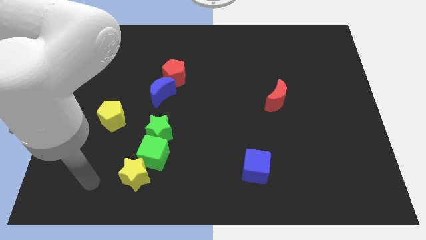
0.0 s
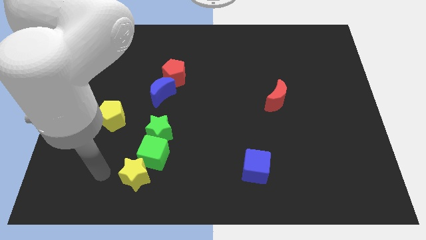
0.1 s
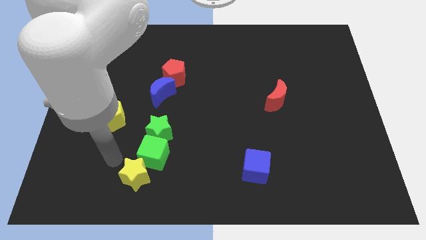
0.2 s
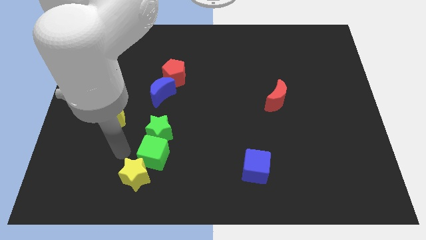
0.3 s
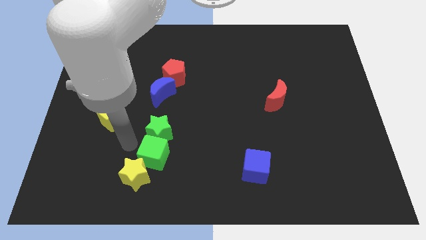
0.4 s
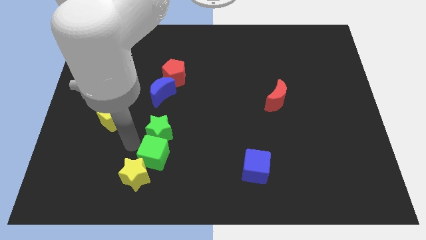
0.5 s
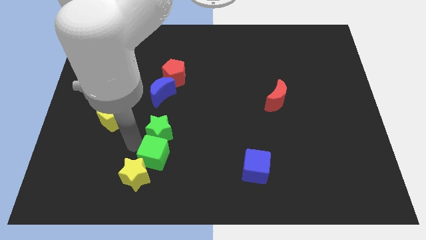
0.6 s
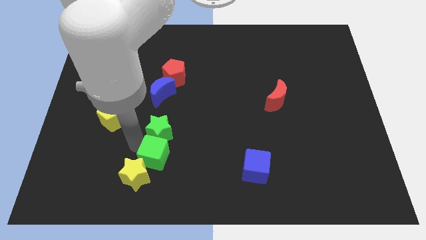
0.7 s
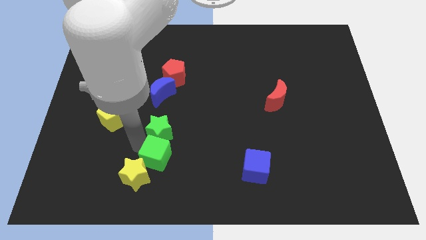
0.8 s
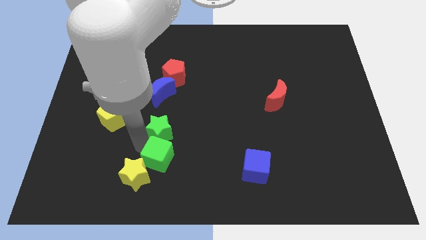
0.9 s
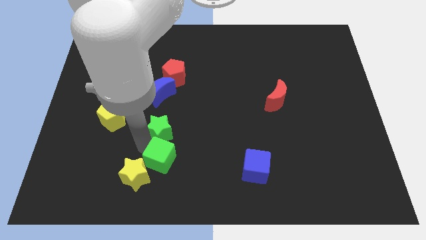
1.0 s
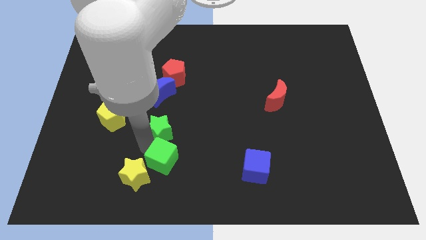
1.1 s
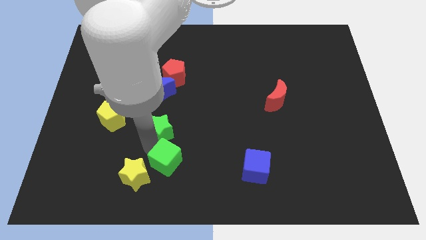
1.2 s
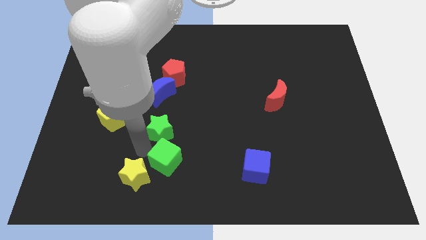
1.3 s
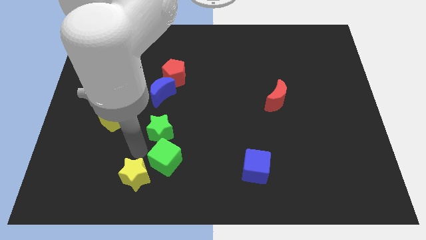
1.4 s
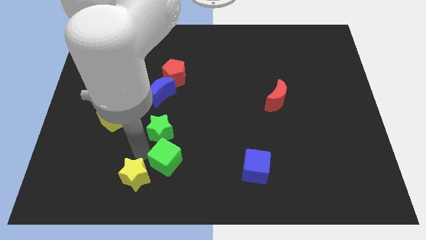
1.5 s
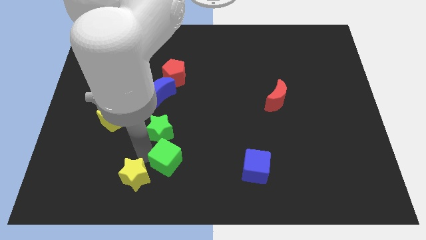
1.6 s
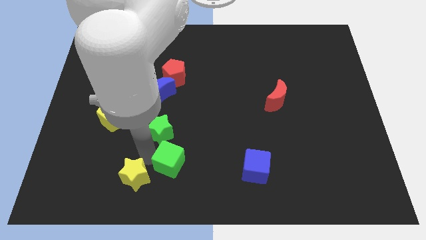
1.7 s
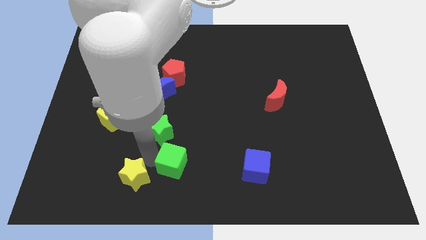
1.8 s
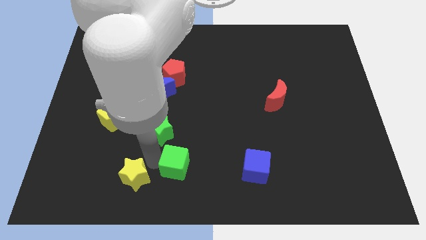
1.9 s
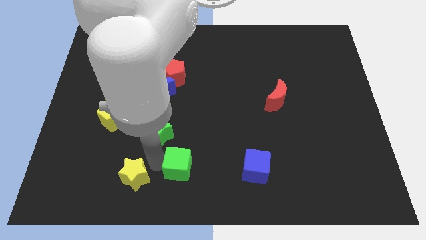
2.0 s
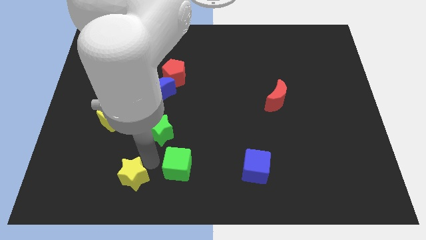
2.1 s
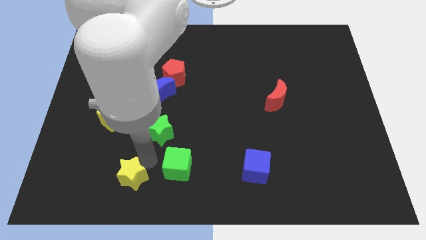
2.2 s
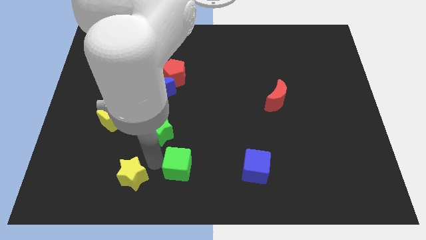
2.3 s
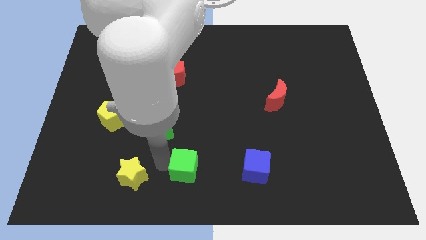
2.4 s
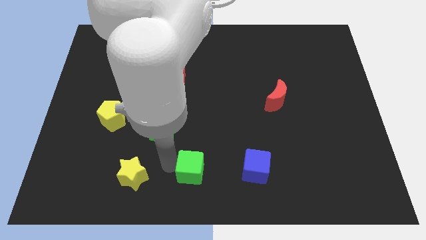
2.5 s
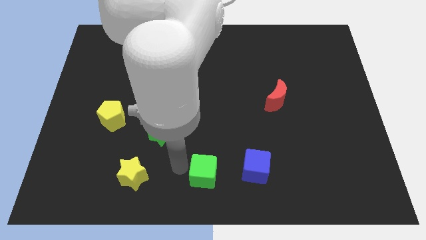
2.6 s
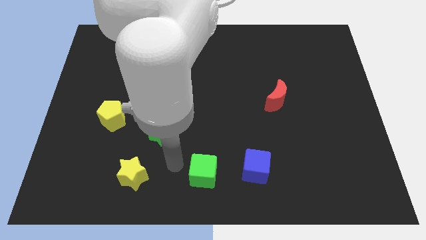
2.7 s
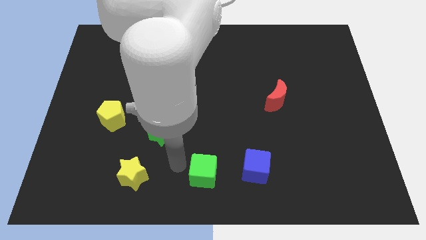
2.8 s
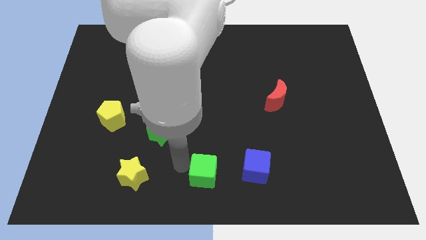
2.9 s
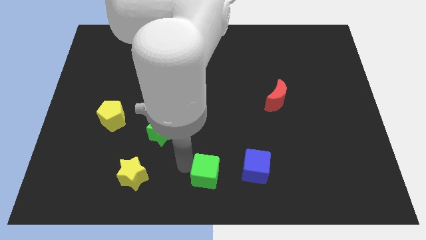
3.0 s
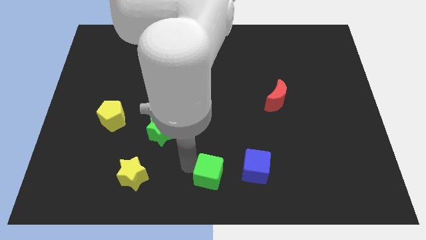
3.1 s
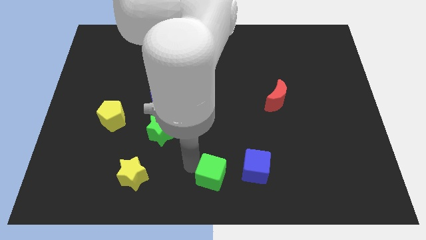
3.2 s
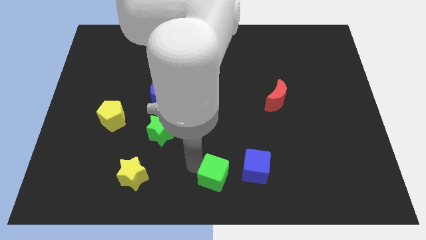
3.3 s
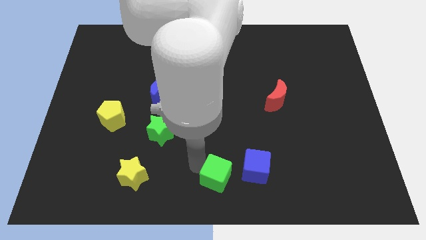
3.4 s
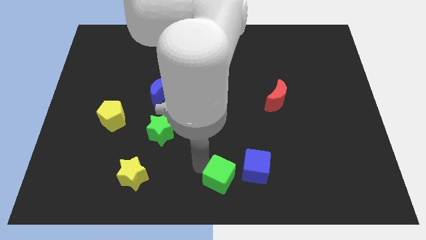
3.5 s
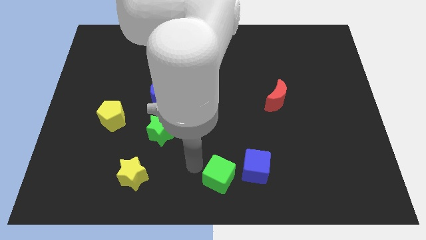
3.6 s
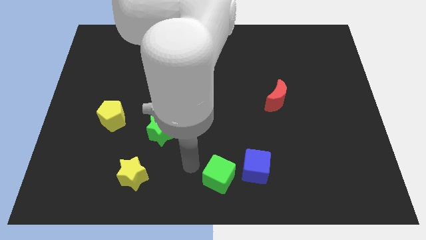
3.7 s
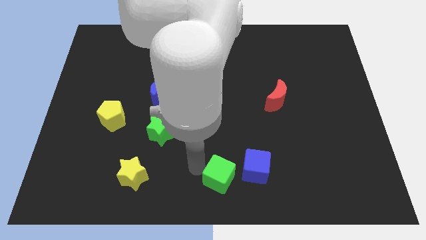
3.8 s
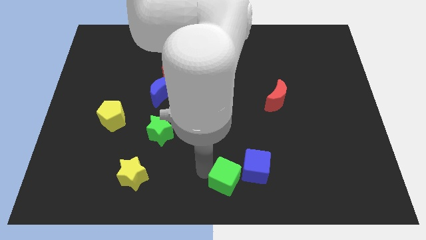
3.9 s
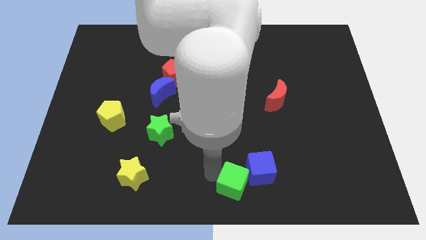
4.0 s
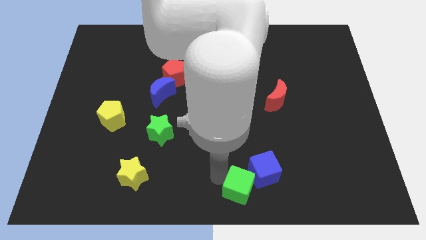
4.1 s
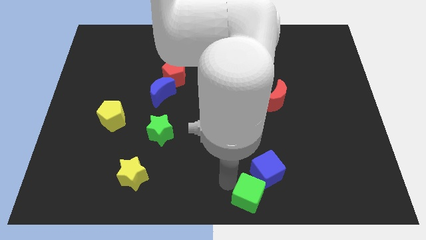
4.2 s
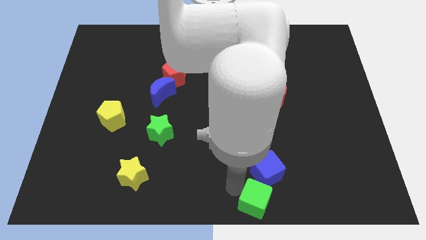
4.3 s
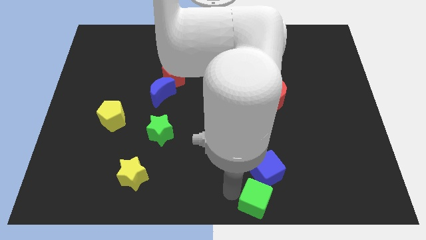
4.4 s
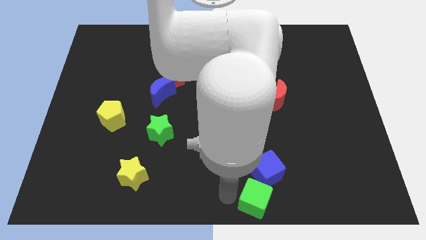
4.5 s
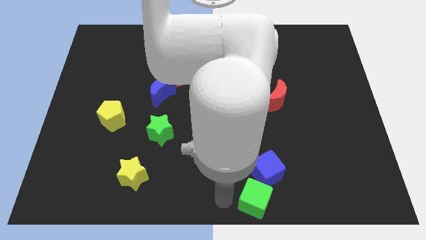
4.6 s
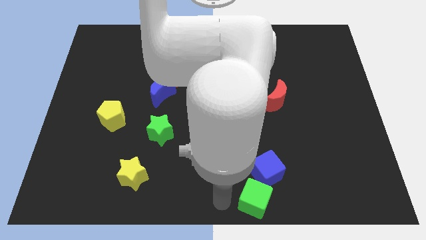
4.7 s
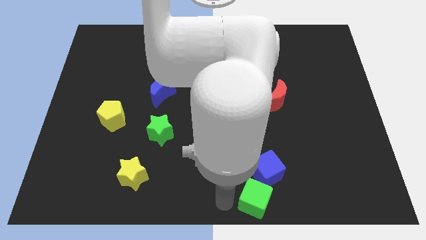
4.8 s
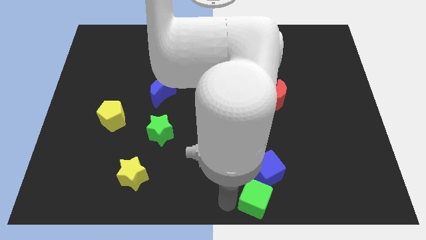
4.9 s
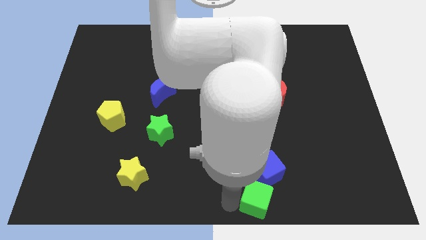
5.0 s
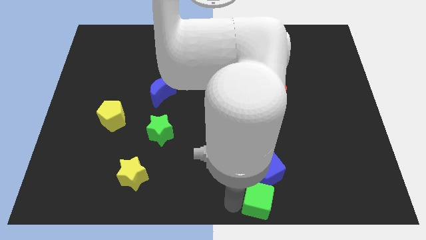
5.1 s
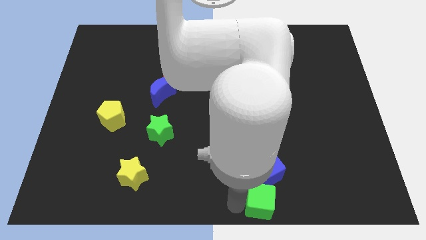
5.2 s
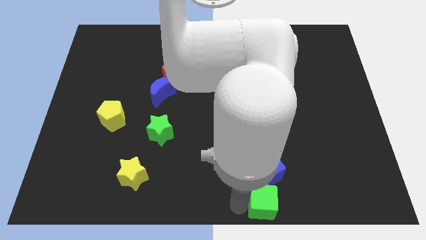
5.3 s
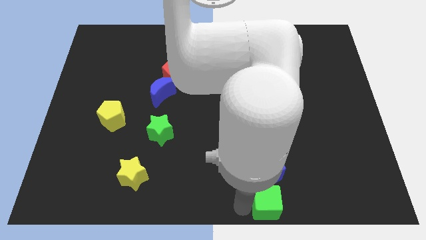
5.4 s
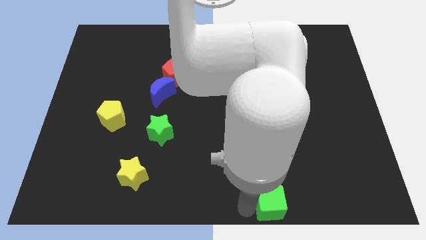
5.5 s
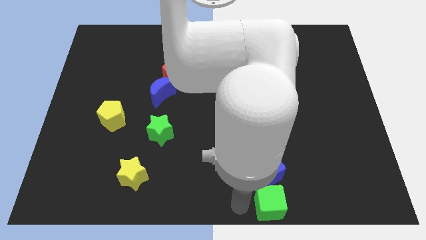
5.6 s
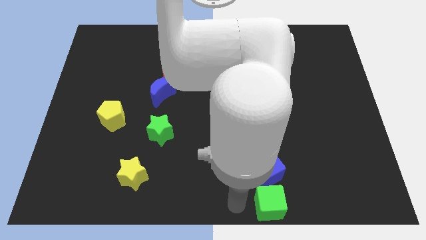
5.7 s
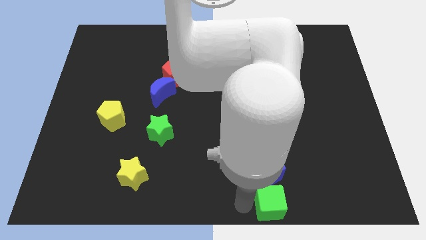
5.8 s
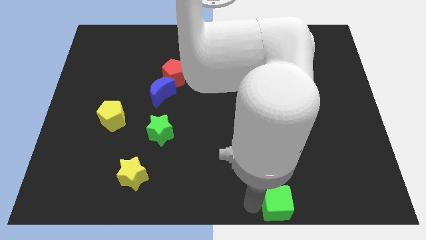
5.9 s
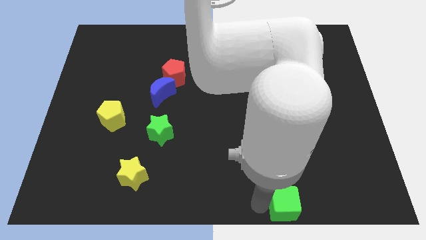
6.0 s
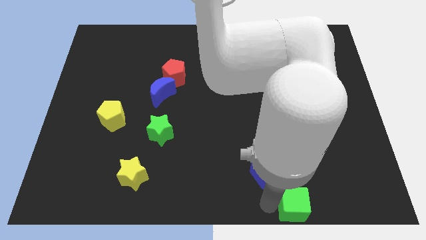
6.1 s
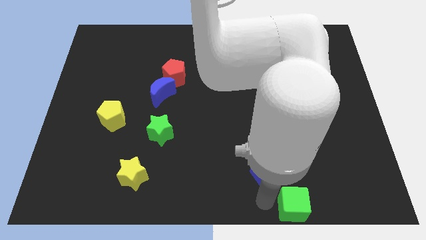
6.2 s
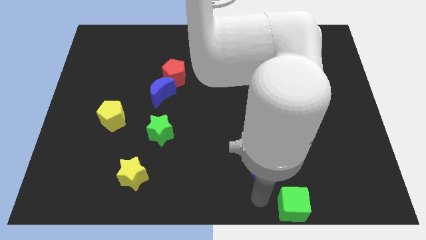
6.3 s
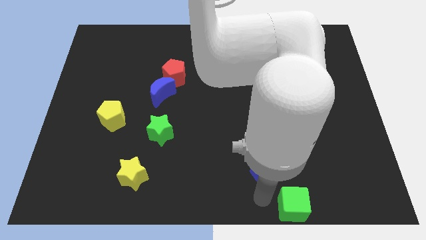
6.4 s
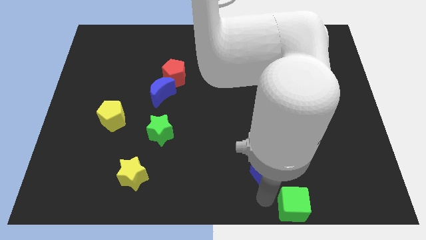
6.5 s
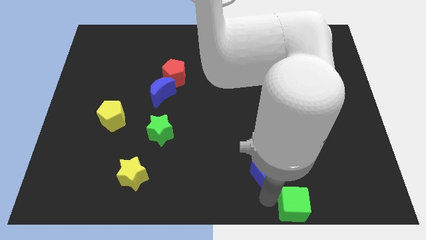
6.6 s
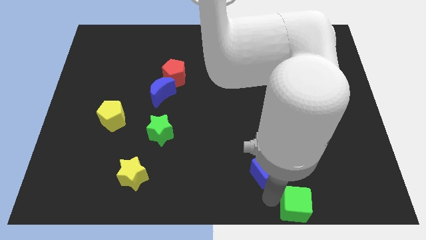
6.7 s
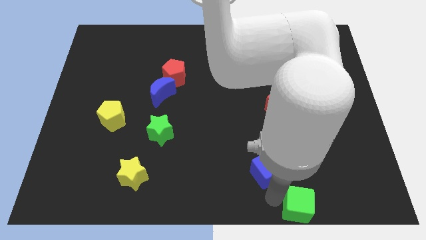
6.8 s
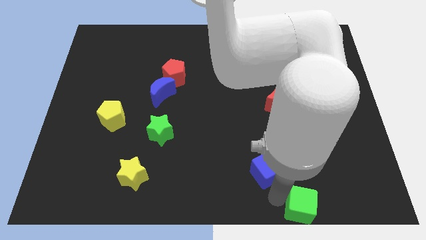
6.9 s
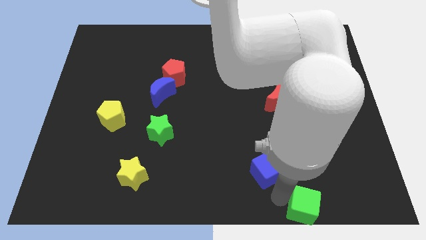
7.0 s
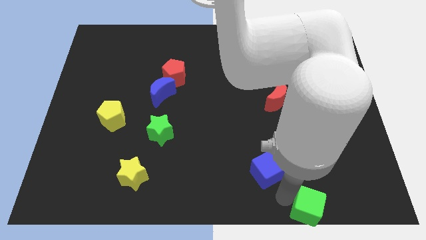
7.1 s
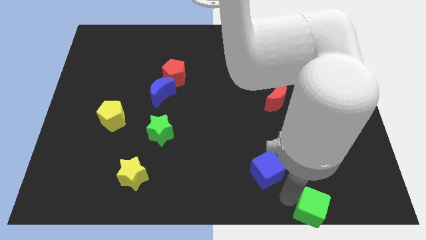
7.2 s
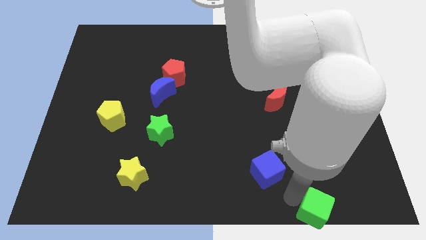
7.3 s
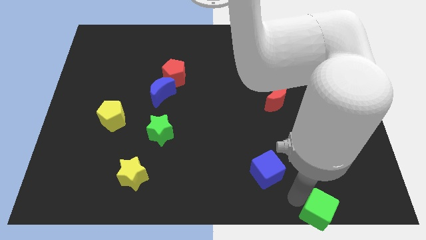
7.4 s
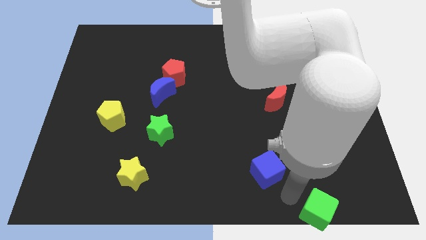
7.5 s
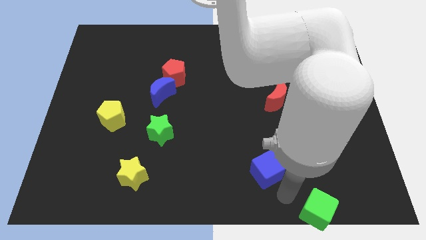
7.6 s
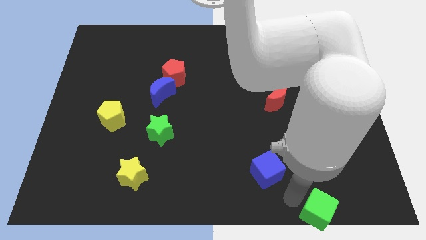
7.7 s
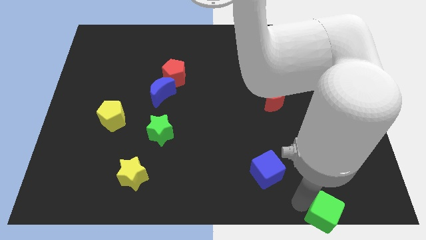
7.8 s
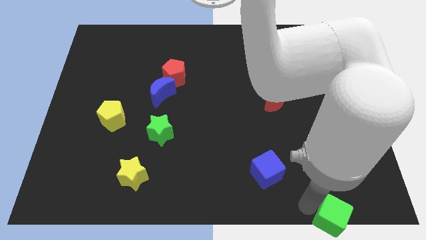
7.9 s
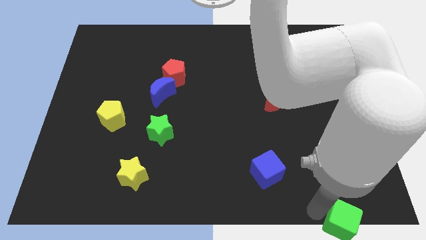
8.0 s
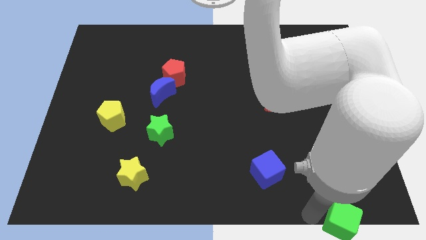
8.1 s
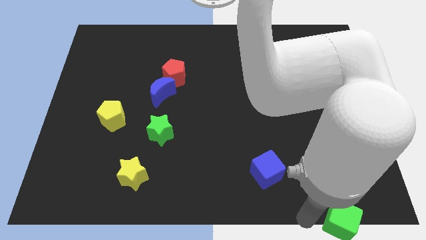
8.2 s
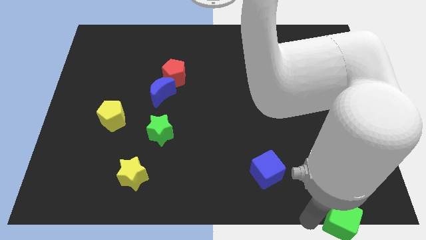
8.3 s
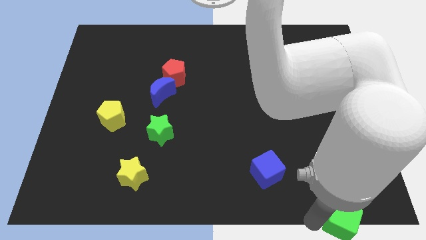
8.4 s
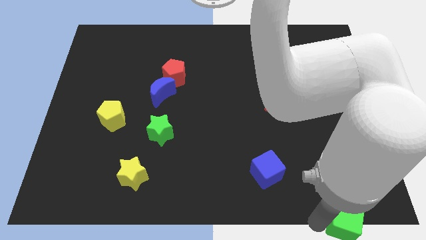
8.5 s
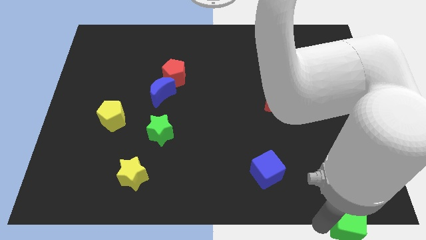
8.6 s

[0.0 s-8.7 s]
slide the green cube to the bottom right corner
